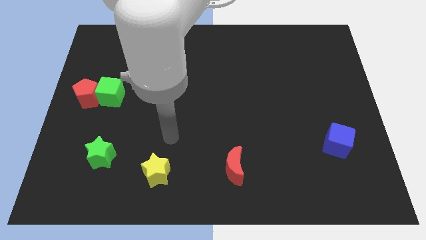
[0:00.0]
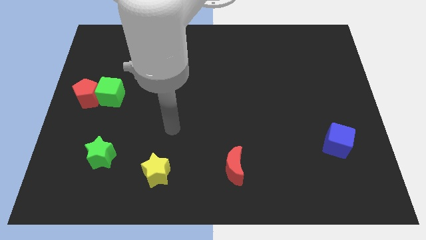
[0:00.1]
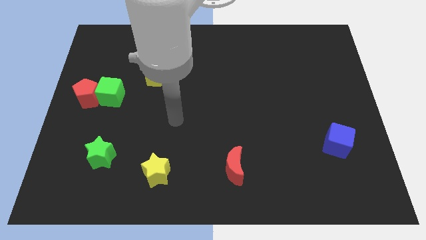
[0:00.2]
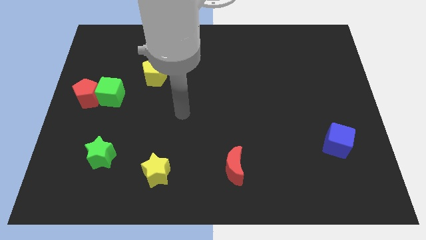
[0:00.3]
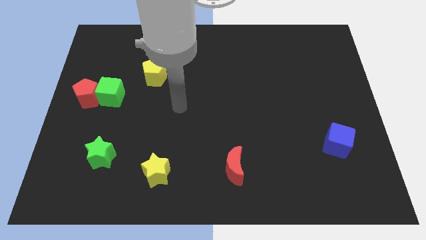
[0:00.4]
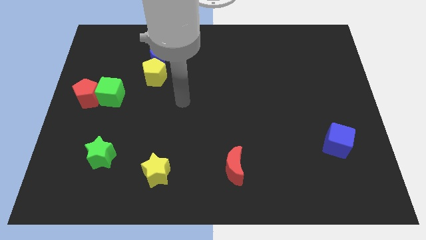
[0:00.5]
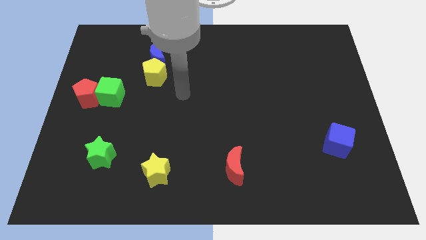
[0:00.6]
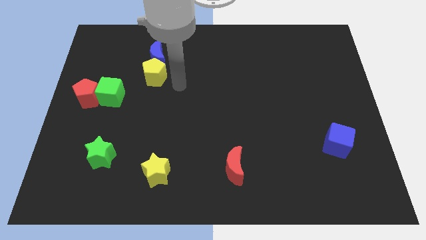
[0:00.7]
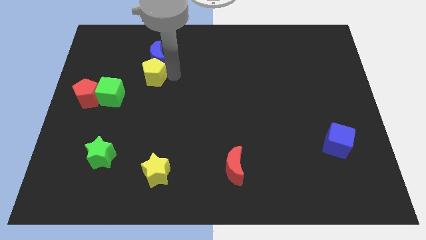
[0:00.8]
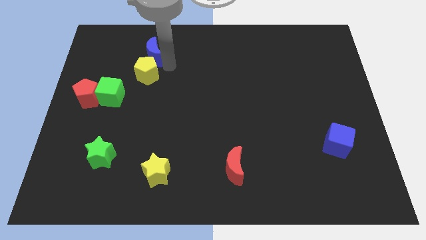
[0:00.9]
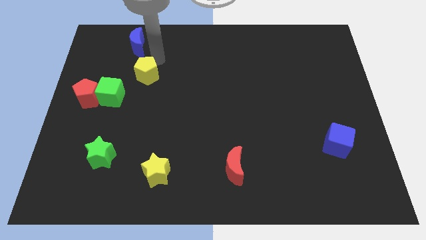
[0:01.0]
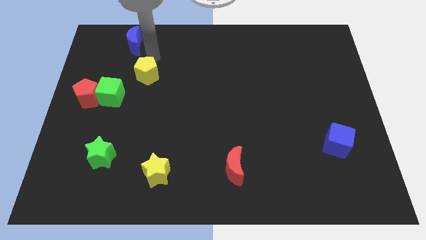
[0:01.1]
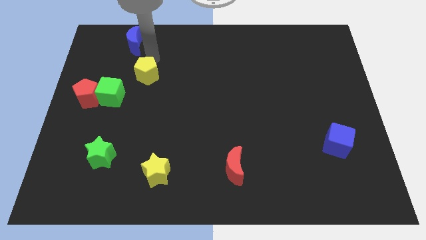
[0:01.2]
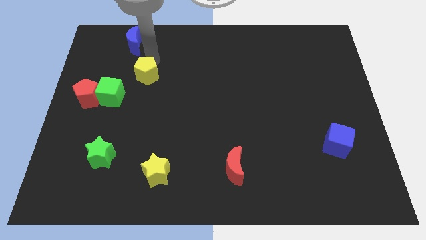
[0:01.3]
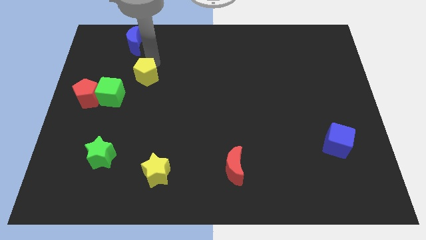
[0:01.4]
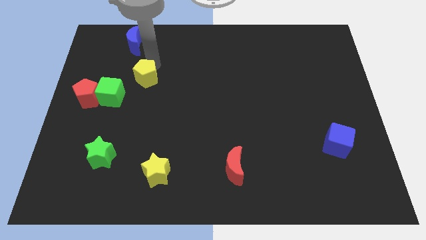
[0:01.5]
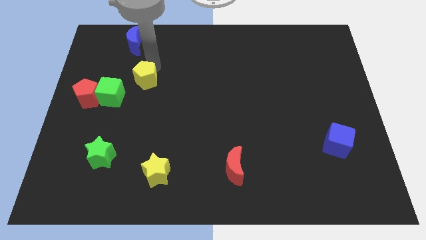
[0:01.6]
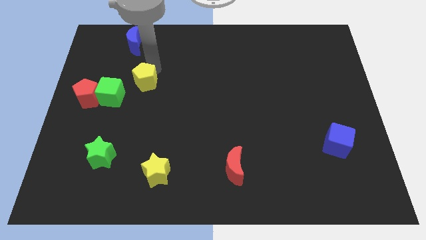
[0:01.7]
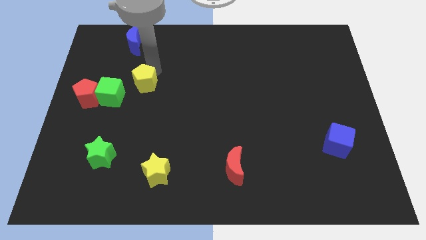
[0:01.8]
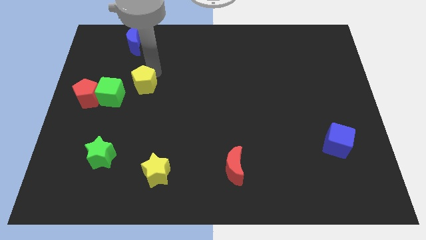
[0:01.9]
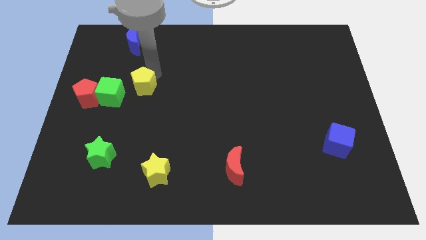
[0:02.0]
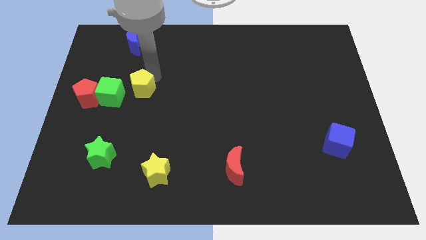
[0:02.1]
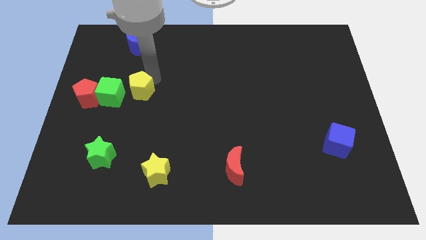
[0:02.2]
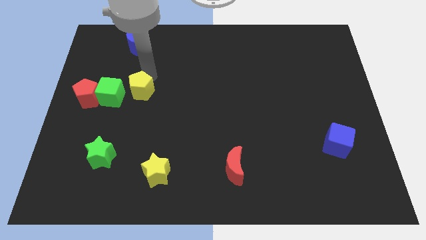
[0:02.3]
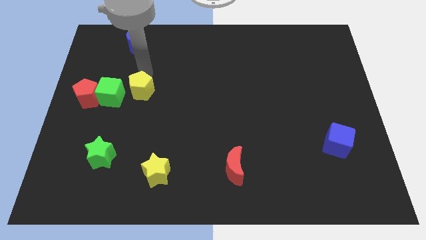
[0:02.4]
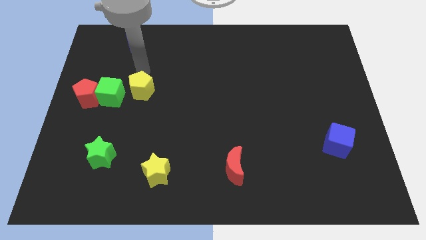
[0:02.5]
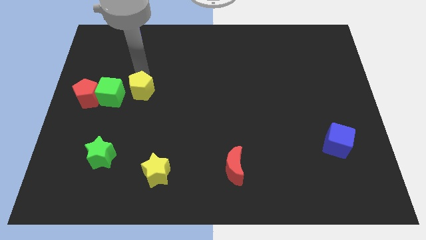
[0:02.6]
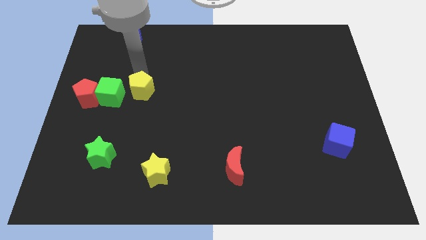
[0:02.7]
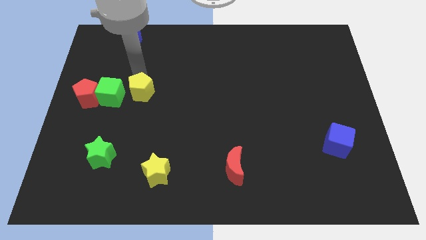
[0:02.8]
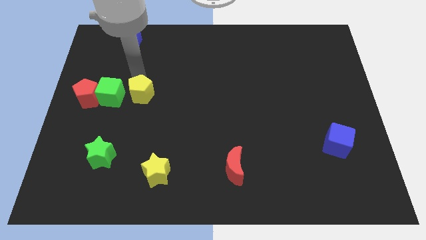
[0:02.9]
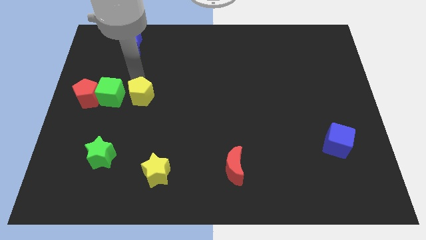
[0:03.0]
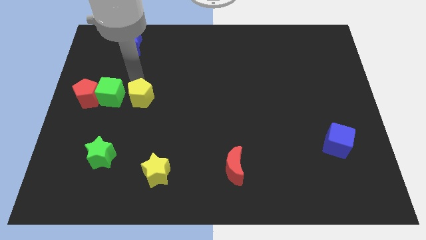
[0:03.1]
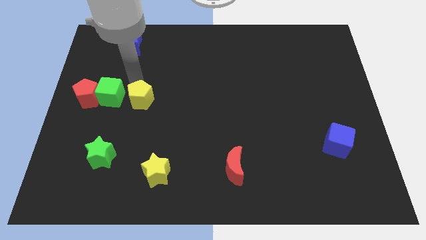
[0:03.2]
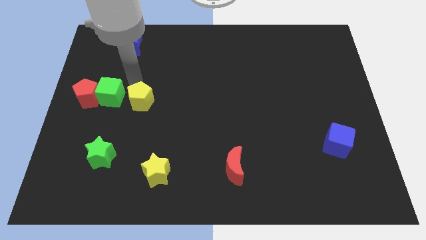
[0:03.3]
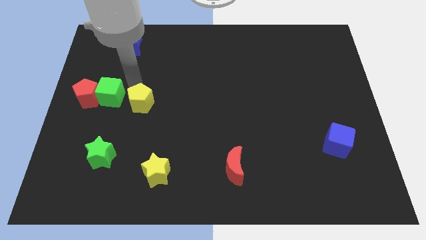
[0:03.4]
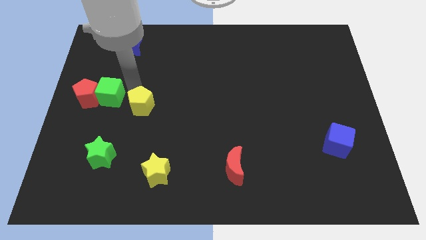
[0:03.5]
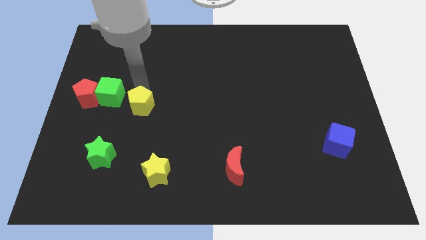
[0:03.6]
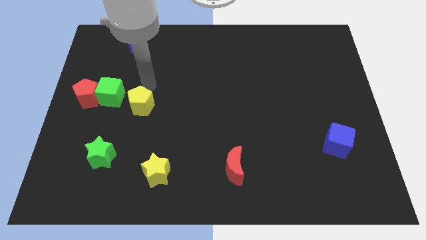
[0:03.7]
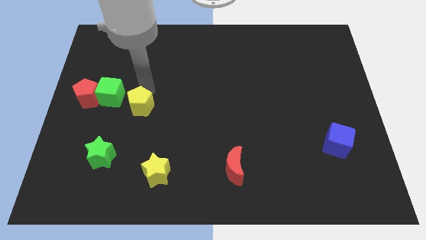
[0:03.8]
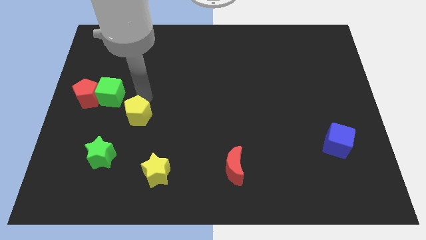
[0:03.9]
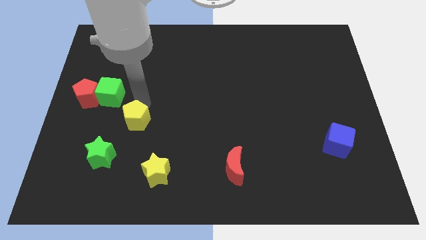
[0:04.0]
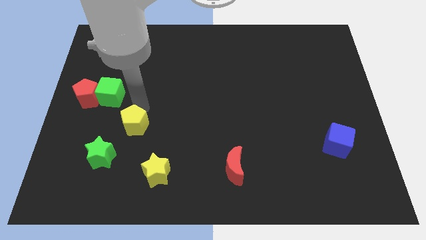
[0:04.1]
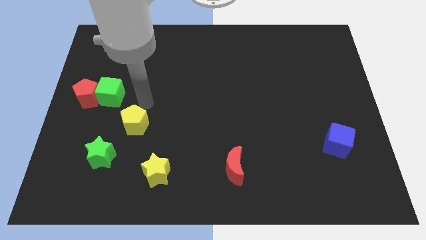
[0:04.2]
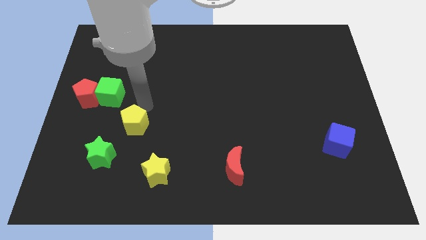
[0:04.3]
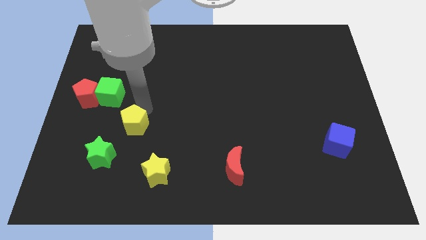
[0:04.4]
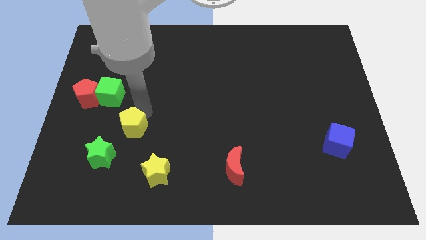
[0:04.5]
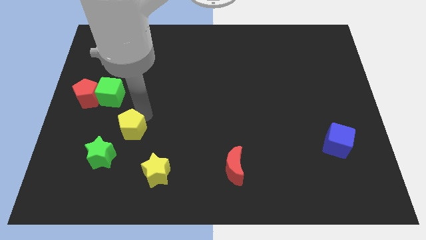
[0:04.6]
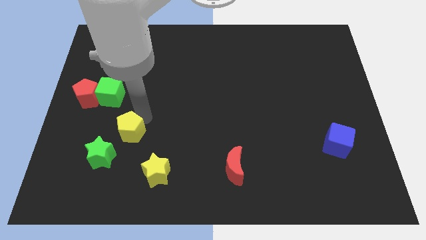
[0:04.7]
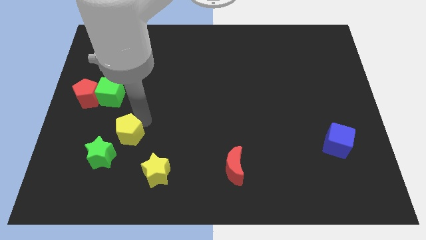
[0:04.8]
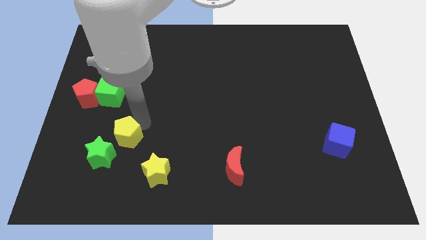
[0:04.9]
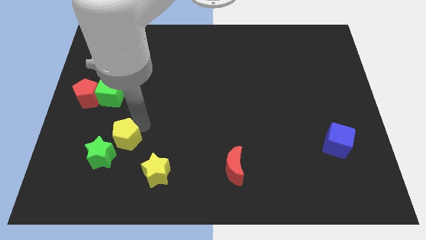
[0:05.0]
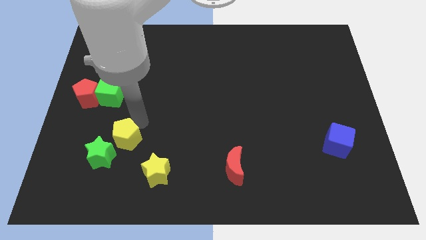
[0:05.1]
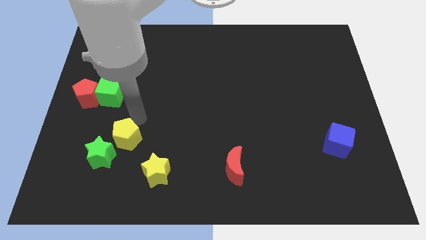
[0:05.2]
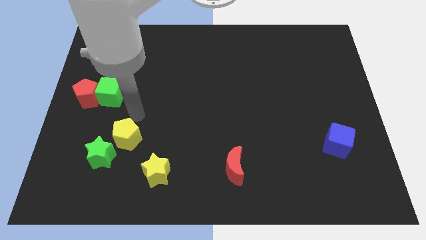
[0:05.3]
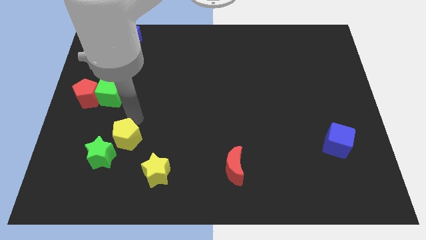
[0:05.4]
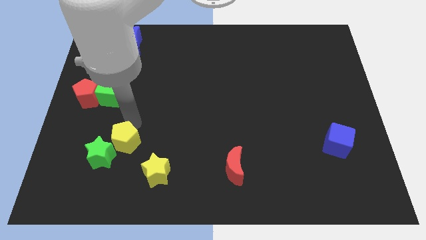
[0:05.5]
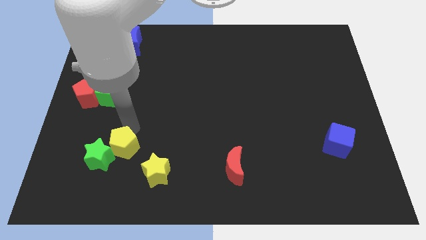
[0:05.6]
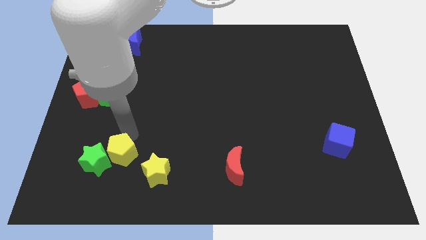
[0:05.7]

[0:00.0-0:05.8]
push the yellow pentagon to the left side of the yellow star
